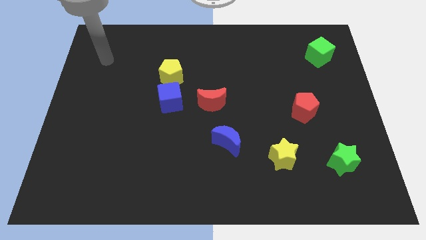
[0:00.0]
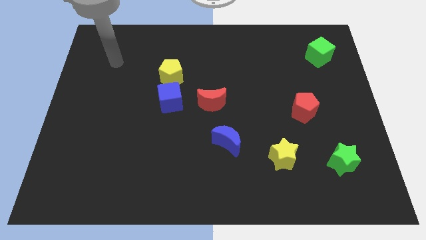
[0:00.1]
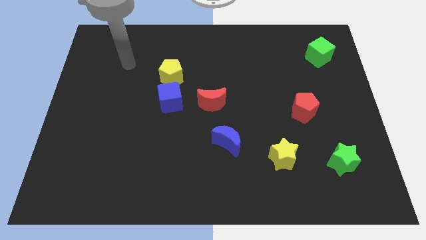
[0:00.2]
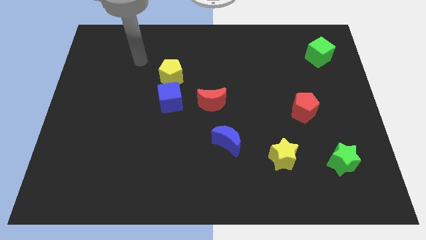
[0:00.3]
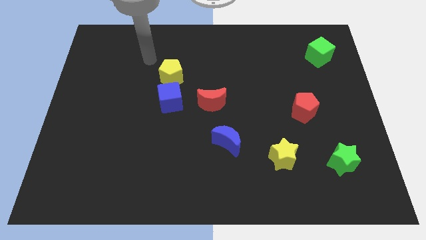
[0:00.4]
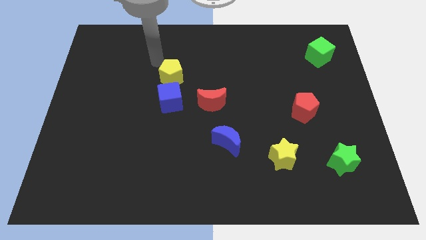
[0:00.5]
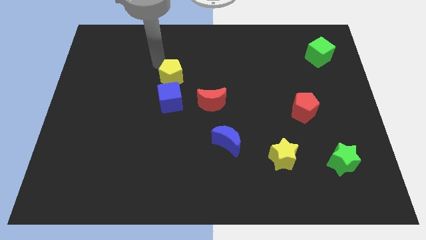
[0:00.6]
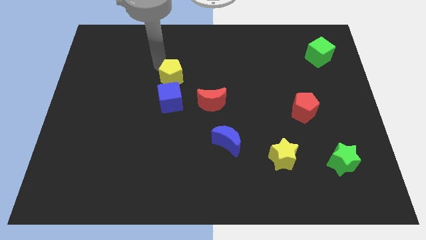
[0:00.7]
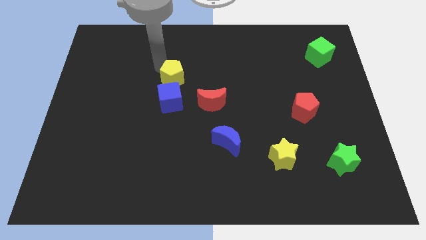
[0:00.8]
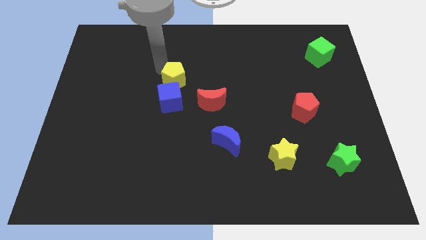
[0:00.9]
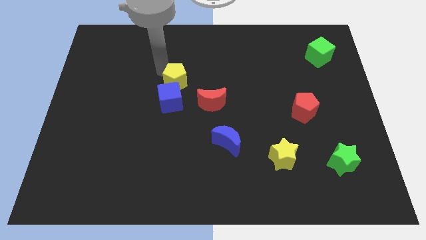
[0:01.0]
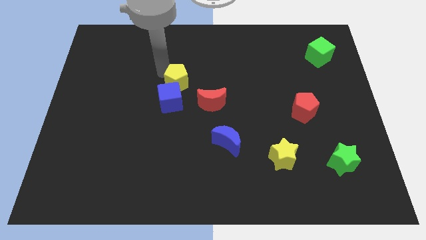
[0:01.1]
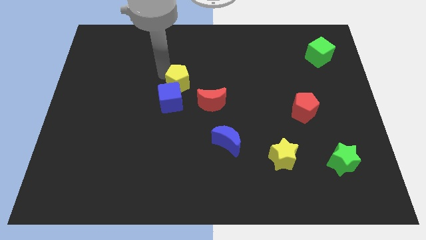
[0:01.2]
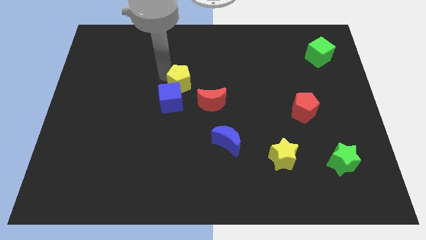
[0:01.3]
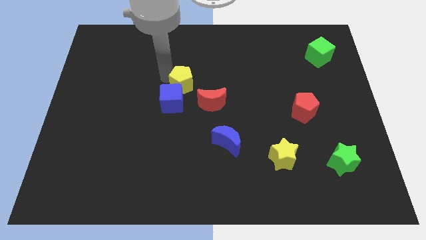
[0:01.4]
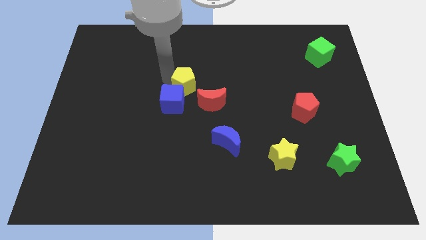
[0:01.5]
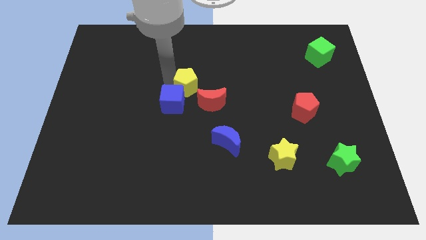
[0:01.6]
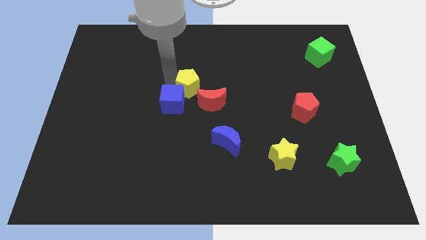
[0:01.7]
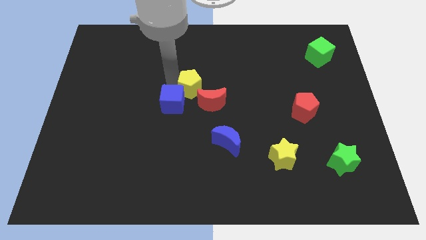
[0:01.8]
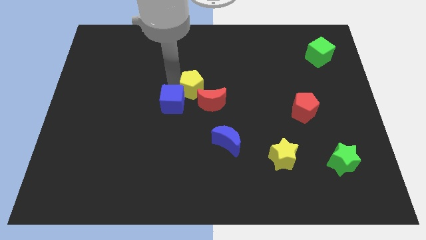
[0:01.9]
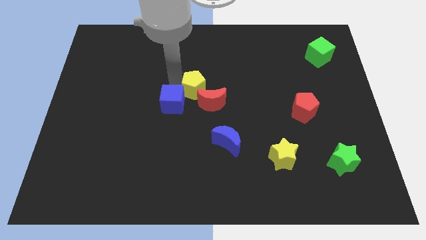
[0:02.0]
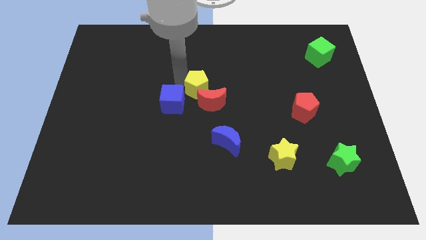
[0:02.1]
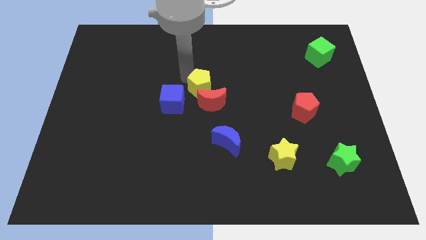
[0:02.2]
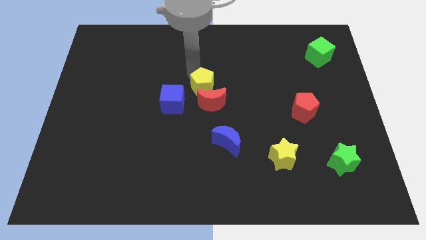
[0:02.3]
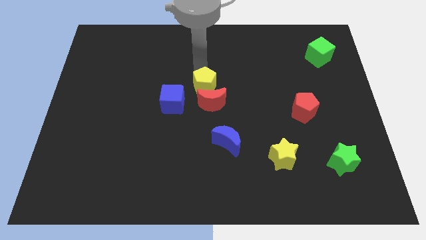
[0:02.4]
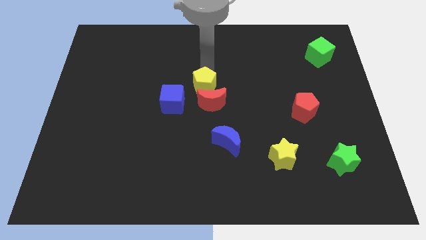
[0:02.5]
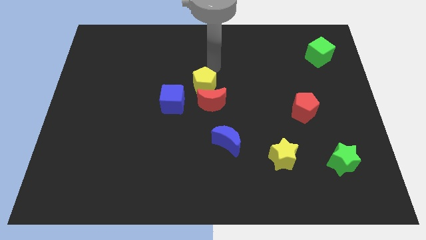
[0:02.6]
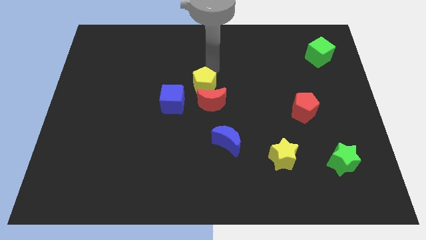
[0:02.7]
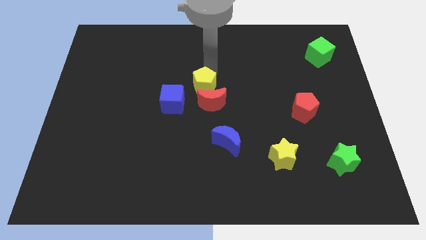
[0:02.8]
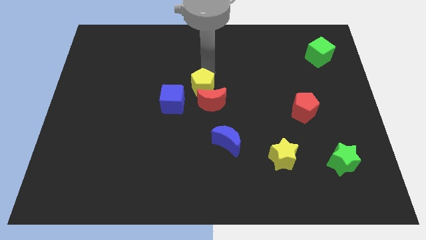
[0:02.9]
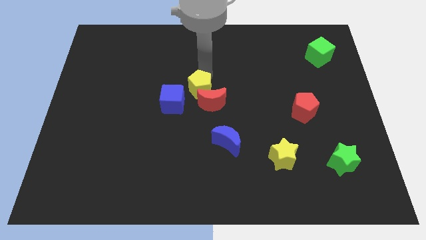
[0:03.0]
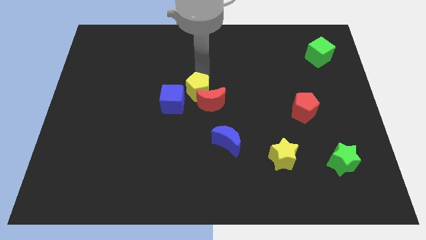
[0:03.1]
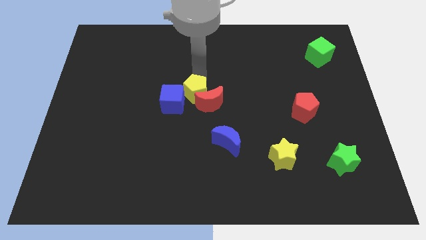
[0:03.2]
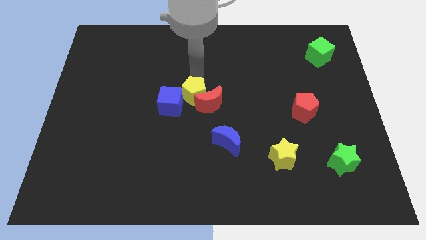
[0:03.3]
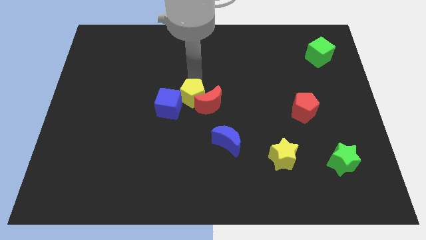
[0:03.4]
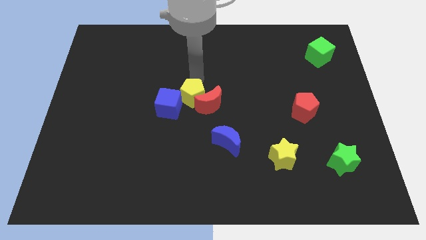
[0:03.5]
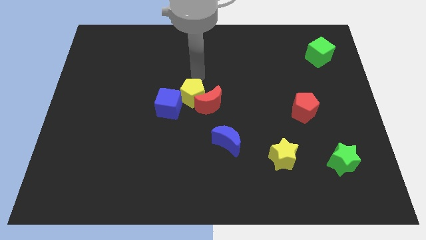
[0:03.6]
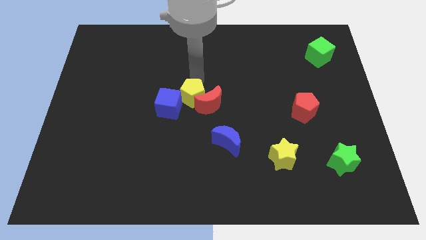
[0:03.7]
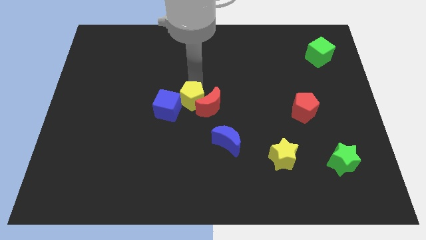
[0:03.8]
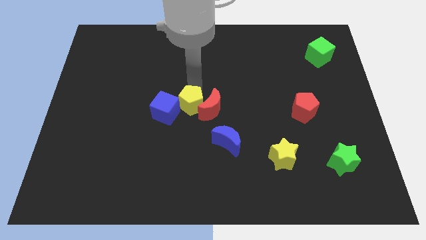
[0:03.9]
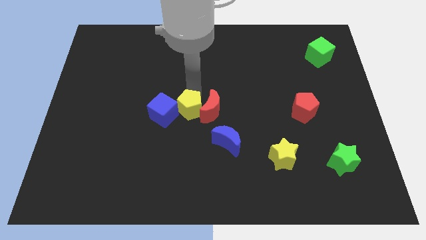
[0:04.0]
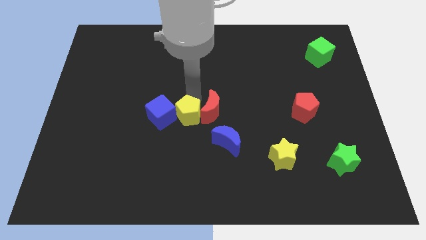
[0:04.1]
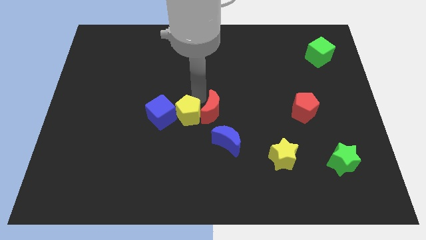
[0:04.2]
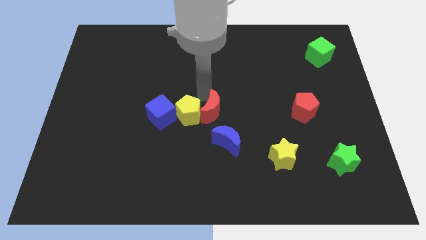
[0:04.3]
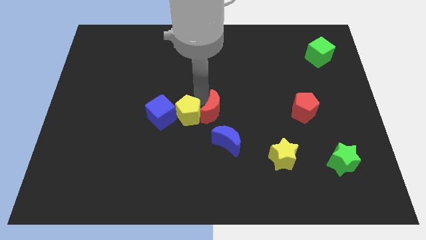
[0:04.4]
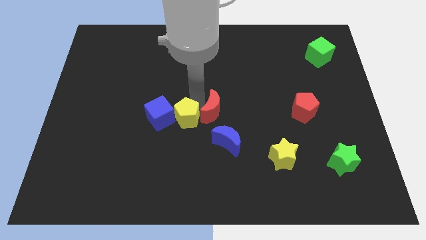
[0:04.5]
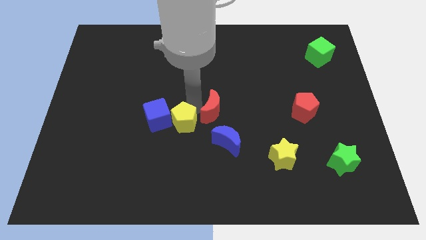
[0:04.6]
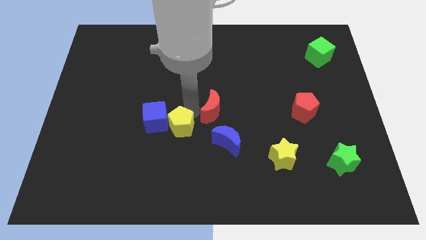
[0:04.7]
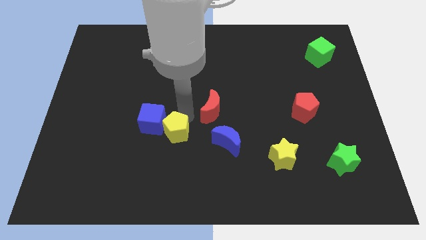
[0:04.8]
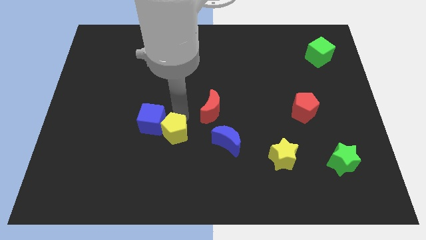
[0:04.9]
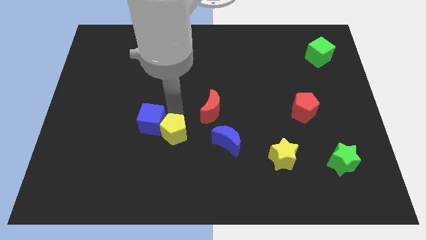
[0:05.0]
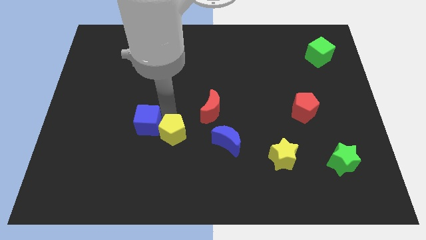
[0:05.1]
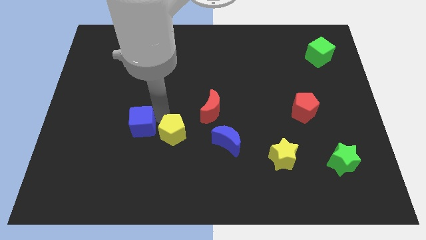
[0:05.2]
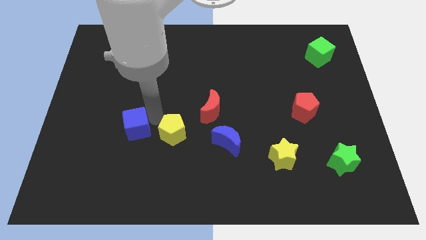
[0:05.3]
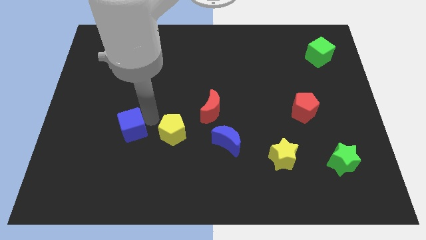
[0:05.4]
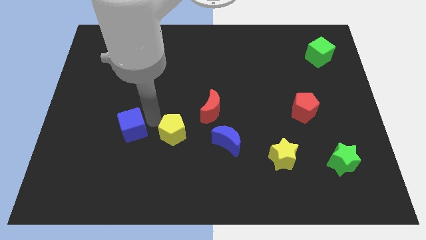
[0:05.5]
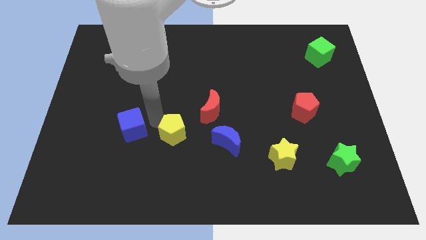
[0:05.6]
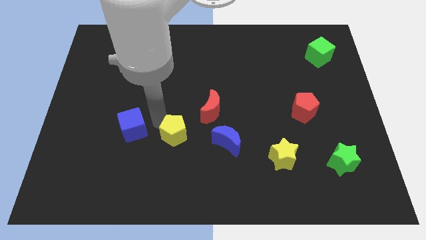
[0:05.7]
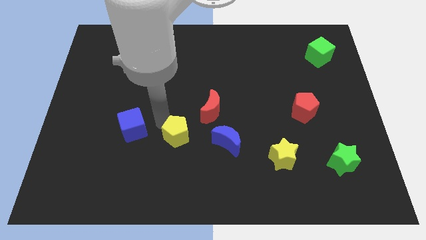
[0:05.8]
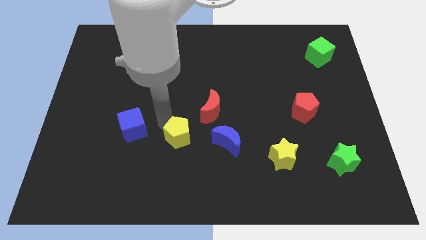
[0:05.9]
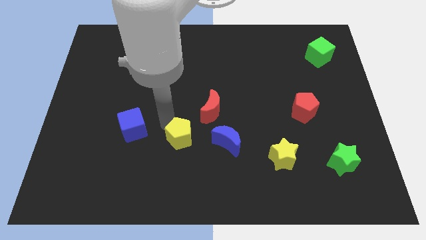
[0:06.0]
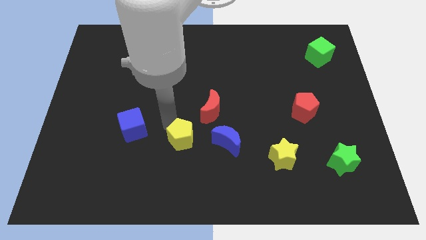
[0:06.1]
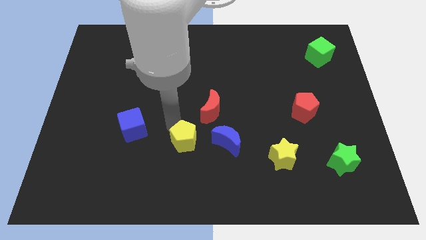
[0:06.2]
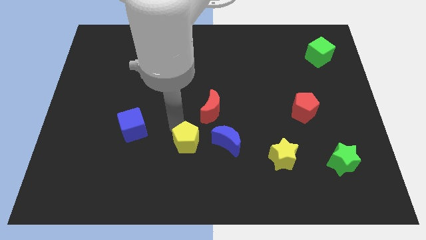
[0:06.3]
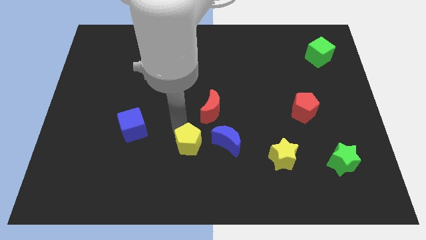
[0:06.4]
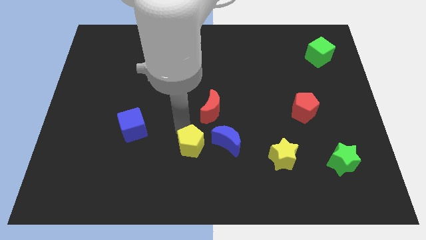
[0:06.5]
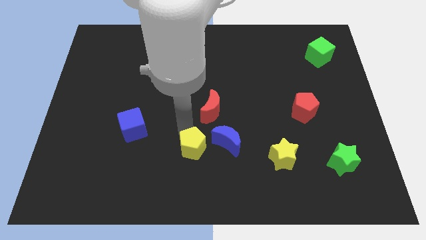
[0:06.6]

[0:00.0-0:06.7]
move the yellow pentagon to the bottom left side of the blue moon

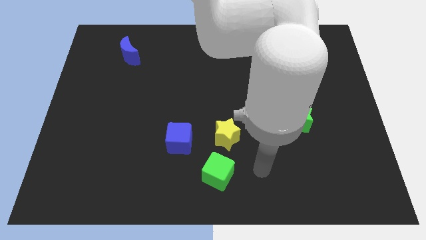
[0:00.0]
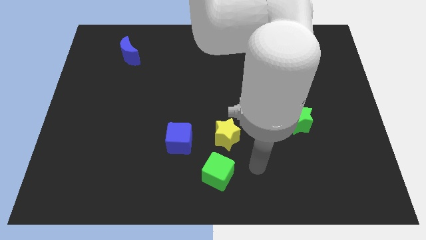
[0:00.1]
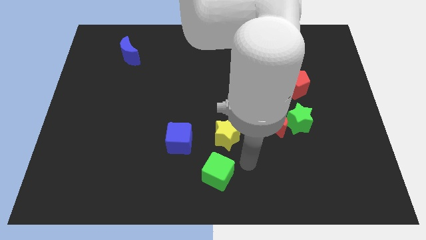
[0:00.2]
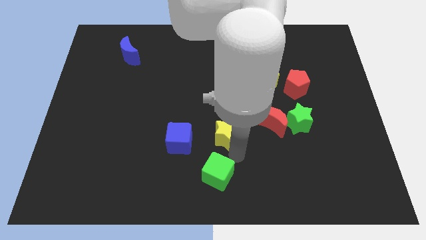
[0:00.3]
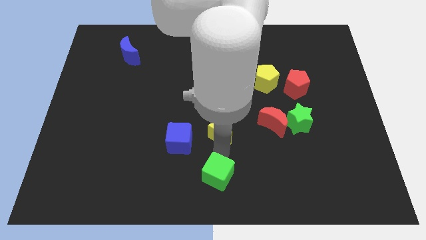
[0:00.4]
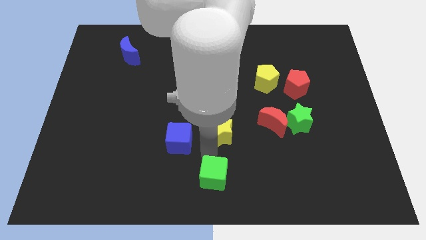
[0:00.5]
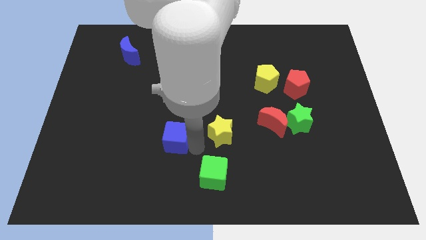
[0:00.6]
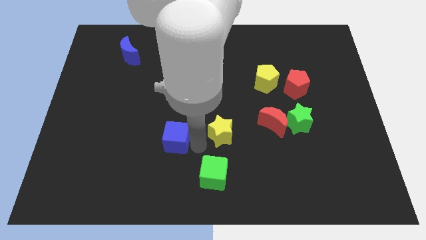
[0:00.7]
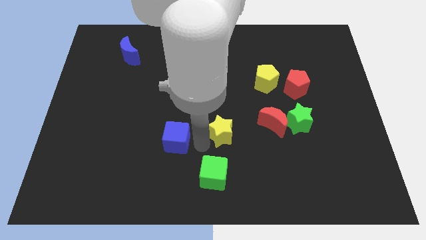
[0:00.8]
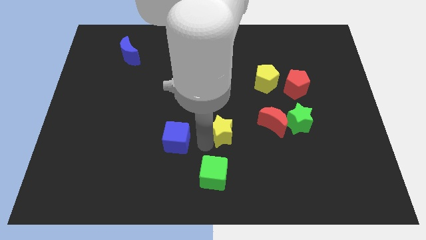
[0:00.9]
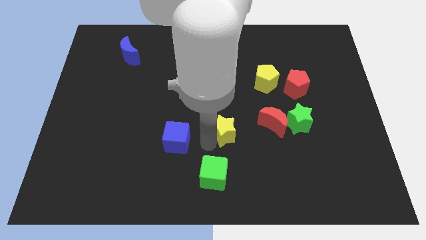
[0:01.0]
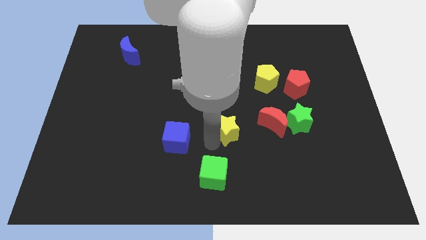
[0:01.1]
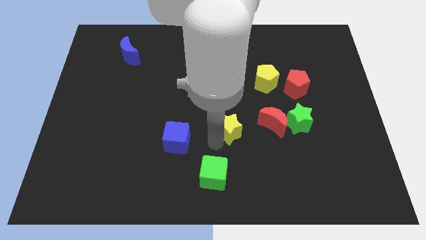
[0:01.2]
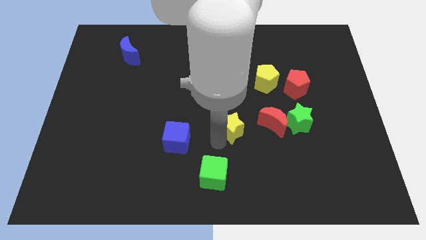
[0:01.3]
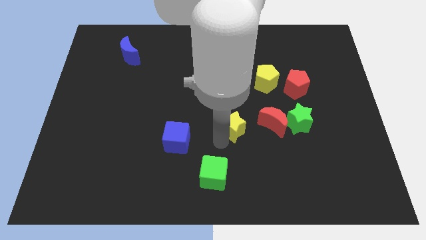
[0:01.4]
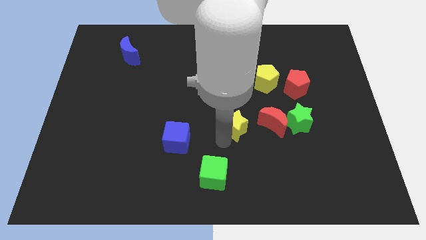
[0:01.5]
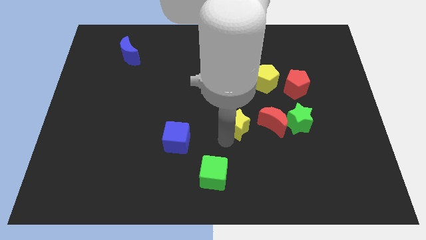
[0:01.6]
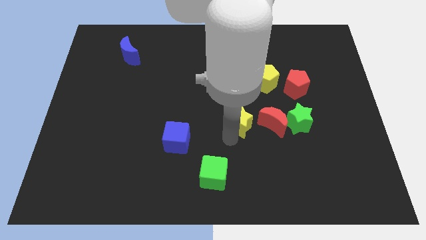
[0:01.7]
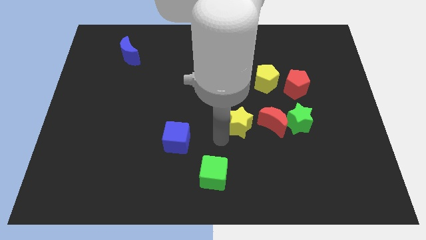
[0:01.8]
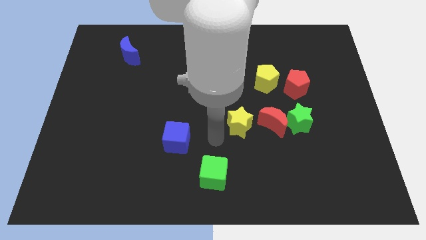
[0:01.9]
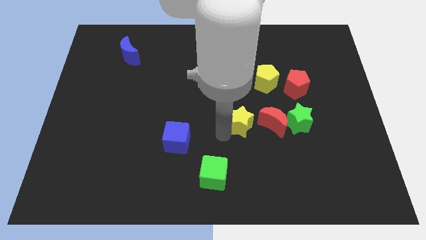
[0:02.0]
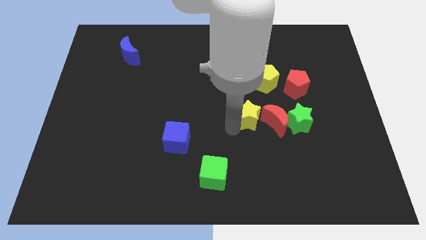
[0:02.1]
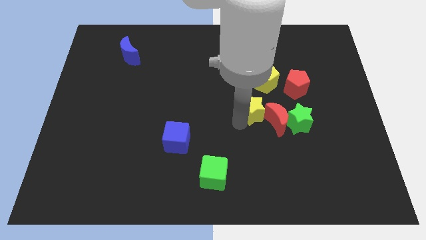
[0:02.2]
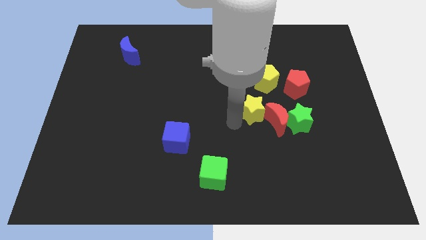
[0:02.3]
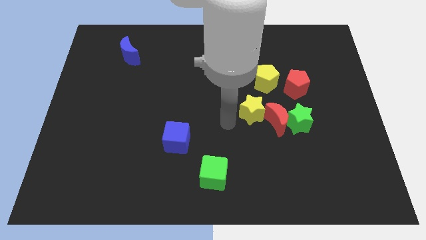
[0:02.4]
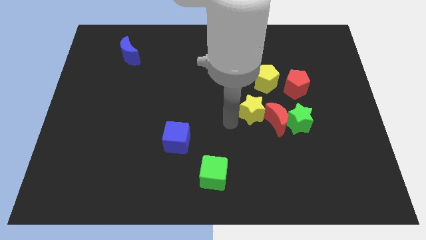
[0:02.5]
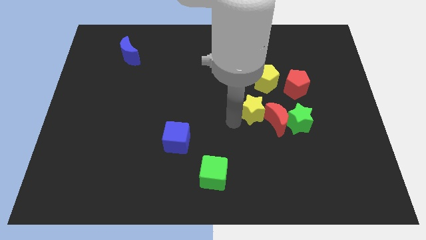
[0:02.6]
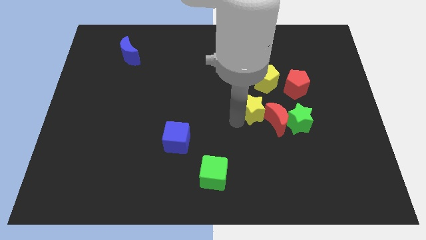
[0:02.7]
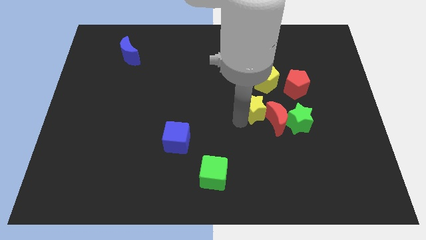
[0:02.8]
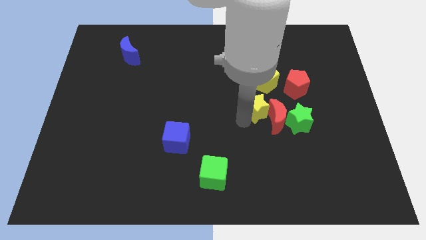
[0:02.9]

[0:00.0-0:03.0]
move the yellow star diagonally up and to the left of the green star
